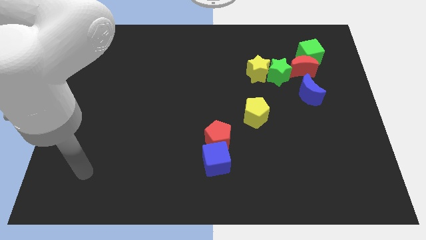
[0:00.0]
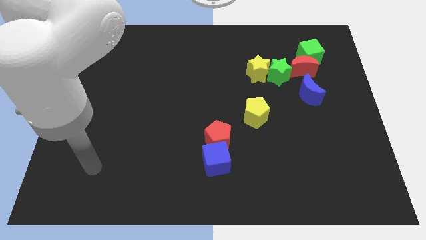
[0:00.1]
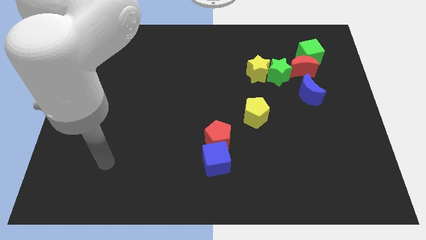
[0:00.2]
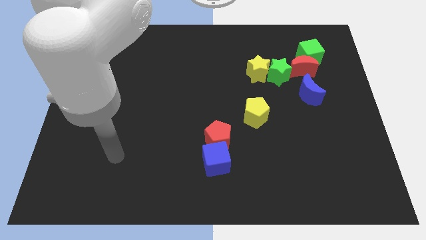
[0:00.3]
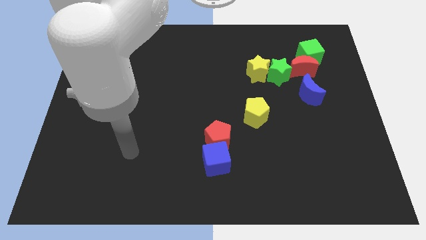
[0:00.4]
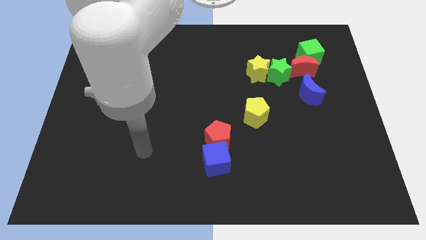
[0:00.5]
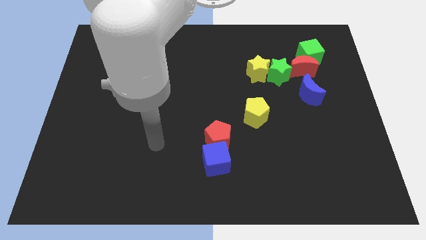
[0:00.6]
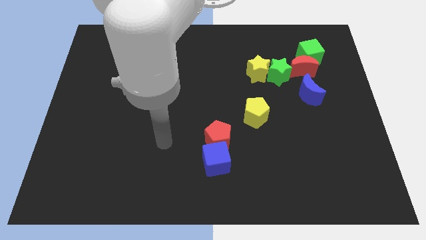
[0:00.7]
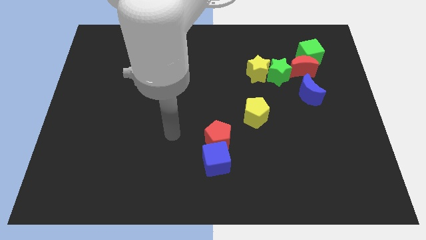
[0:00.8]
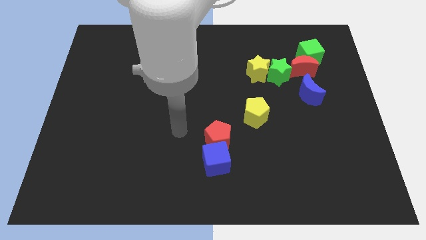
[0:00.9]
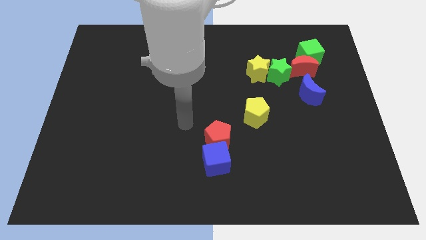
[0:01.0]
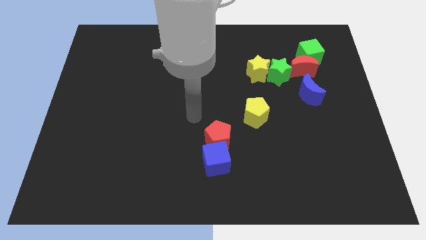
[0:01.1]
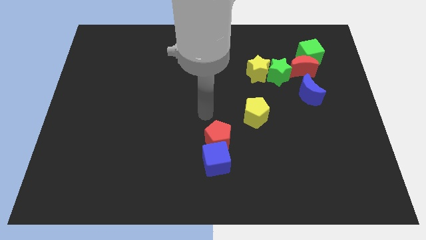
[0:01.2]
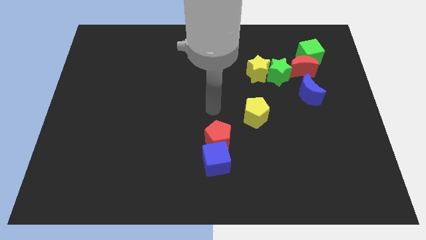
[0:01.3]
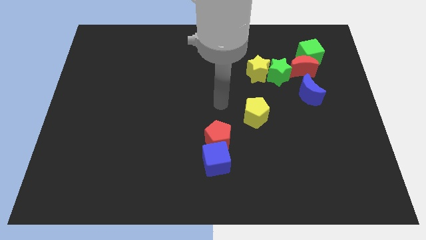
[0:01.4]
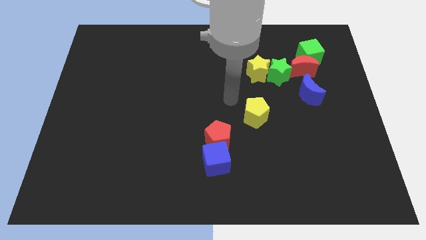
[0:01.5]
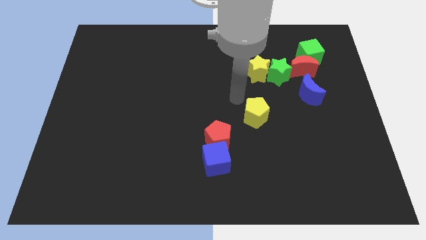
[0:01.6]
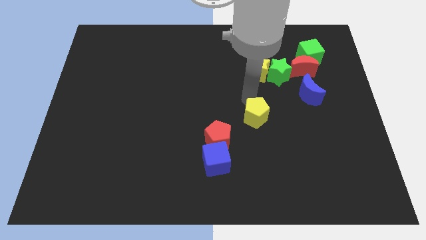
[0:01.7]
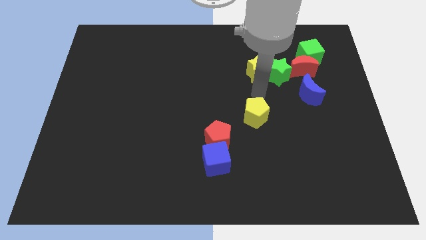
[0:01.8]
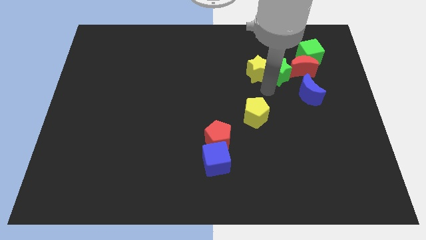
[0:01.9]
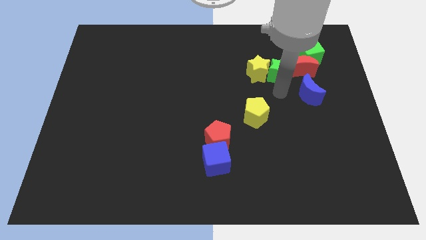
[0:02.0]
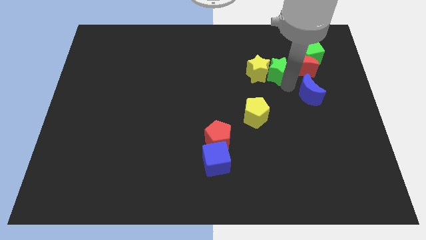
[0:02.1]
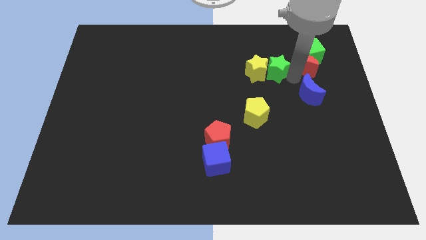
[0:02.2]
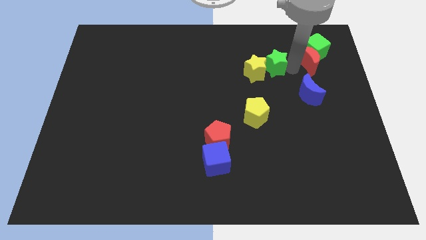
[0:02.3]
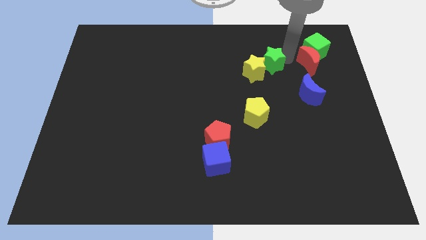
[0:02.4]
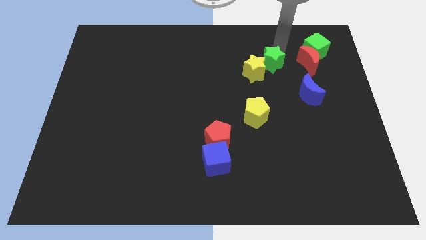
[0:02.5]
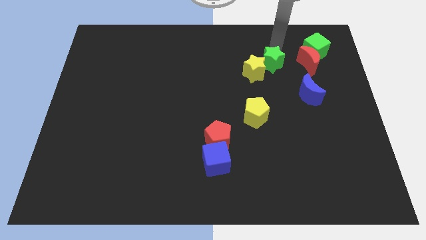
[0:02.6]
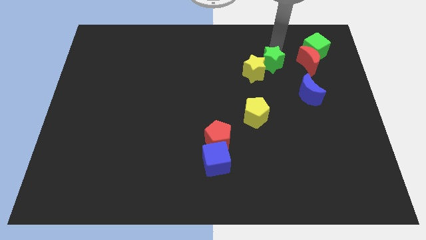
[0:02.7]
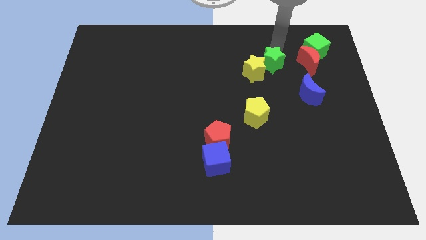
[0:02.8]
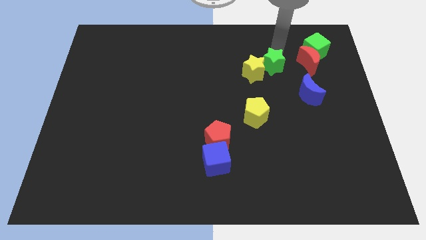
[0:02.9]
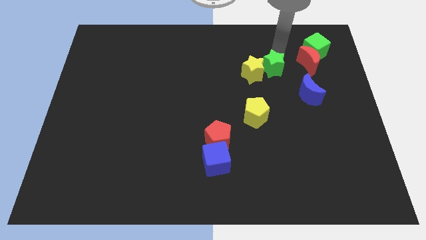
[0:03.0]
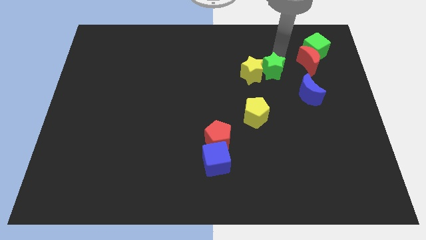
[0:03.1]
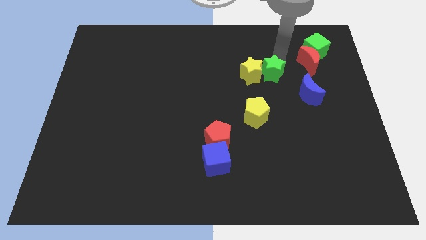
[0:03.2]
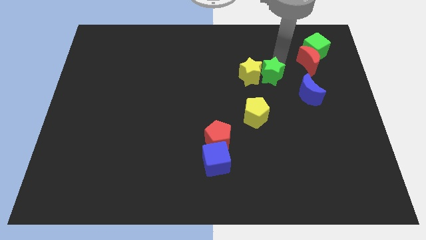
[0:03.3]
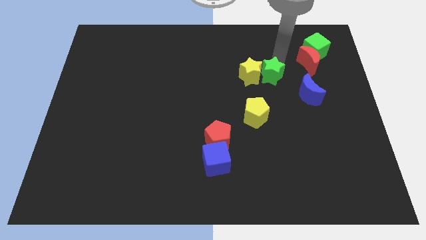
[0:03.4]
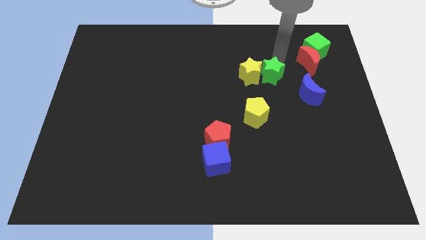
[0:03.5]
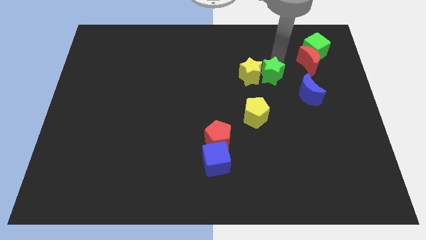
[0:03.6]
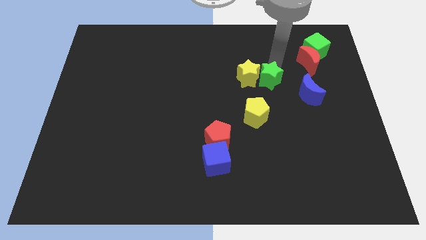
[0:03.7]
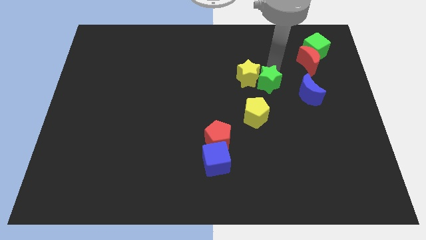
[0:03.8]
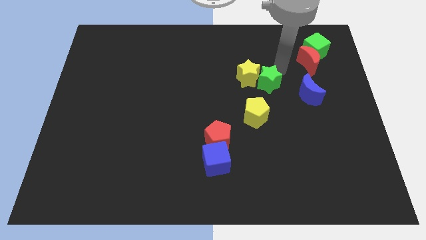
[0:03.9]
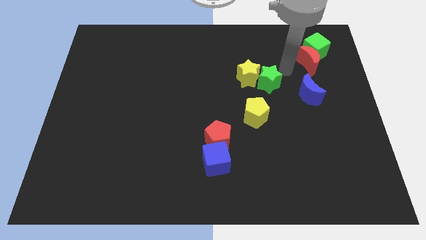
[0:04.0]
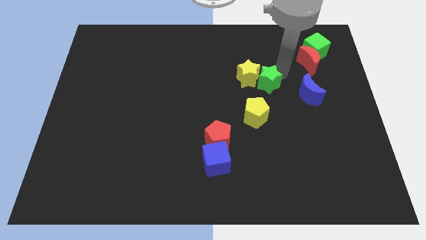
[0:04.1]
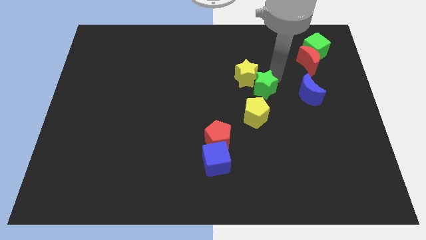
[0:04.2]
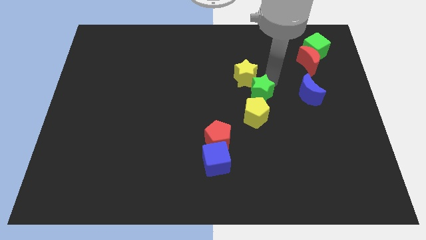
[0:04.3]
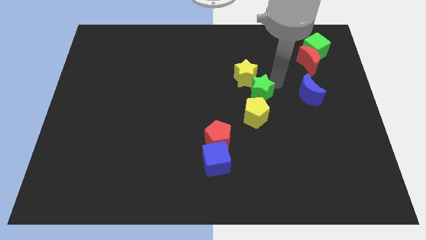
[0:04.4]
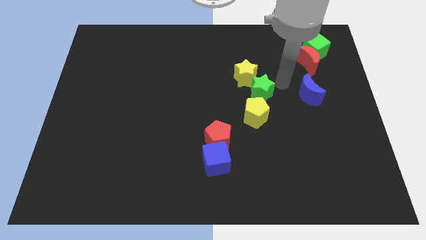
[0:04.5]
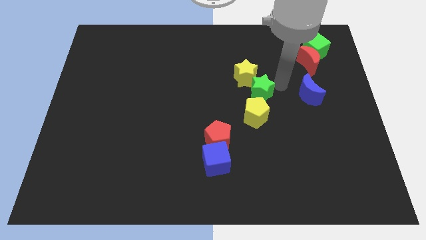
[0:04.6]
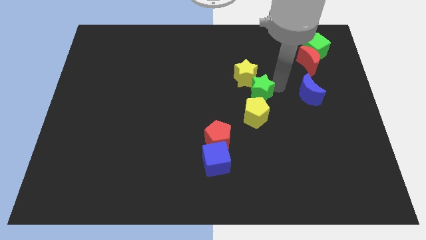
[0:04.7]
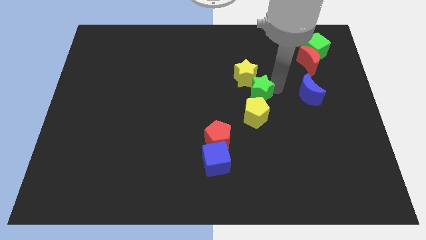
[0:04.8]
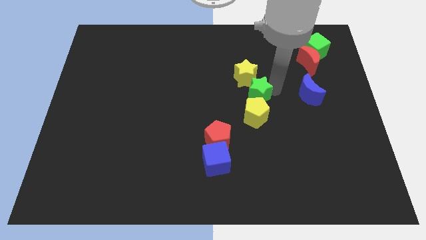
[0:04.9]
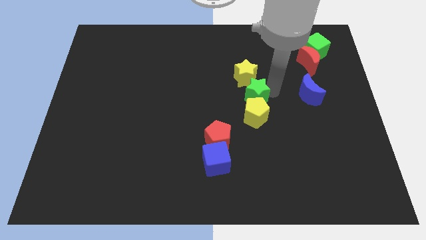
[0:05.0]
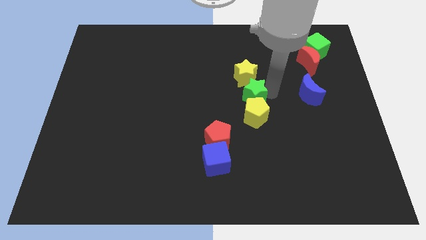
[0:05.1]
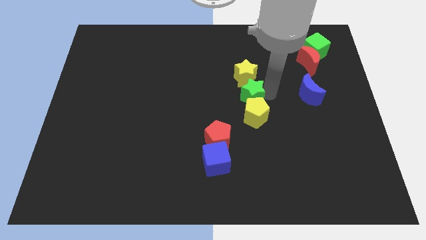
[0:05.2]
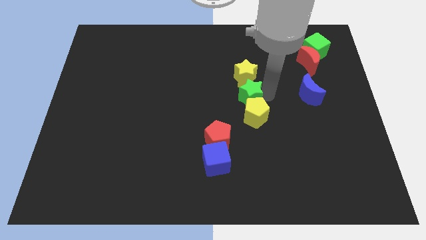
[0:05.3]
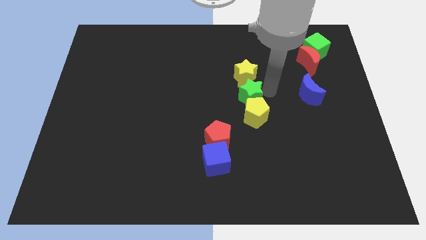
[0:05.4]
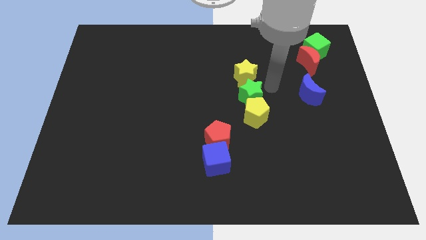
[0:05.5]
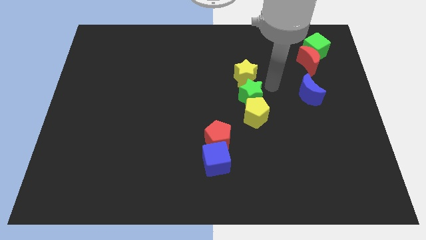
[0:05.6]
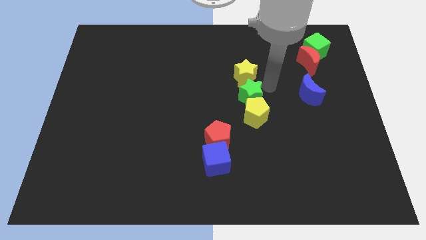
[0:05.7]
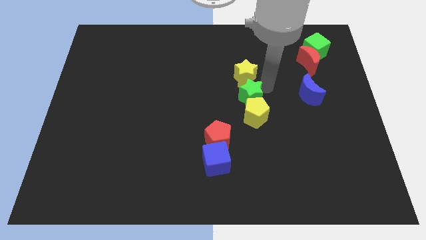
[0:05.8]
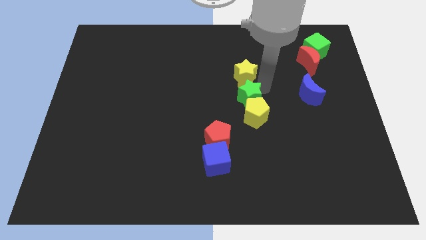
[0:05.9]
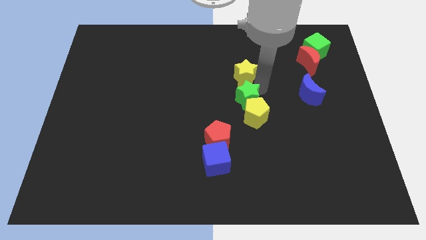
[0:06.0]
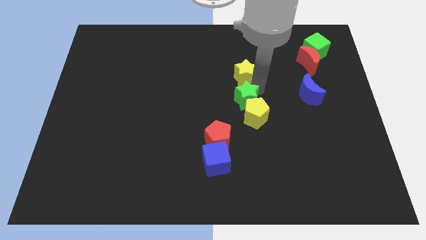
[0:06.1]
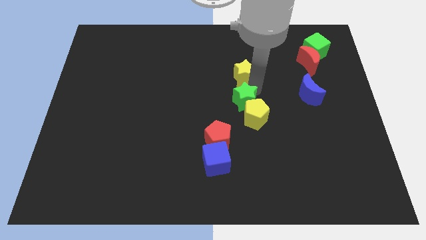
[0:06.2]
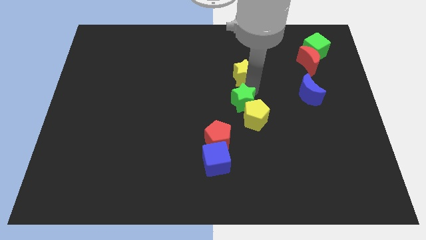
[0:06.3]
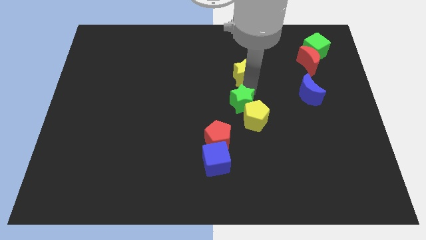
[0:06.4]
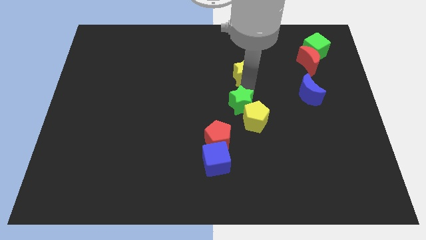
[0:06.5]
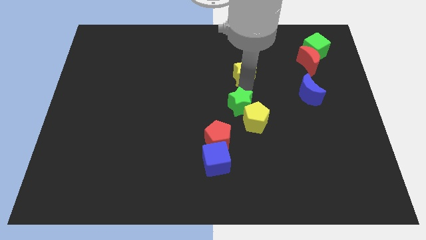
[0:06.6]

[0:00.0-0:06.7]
push the green star just left of the yellow pentagon
